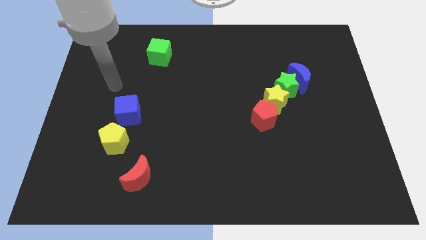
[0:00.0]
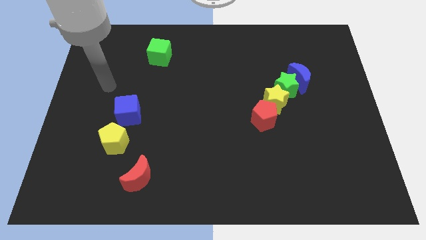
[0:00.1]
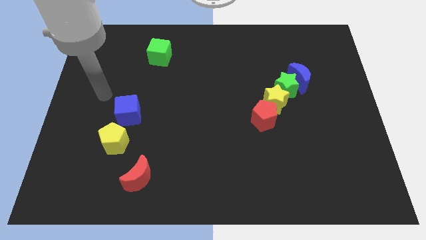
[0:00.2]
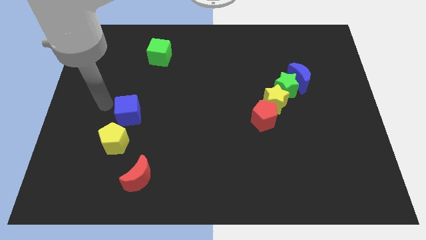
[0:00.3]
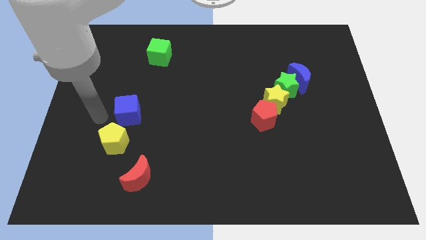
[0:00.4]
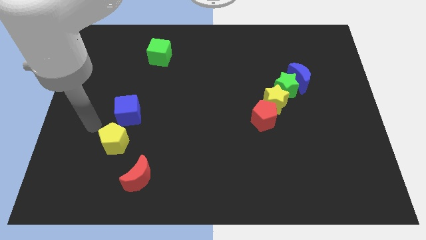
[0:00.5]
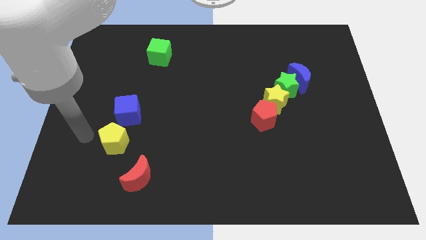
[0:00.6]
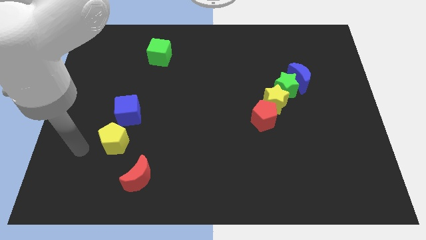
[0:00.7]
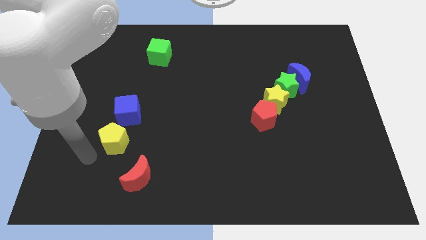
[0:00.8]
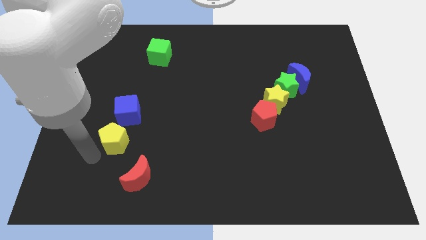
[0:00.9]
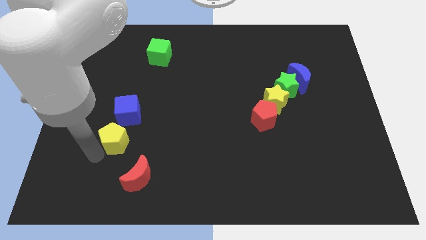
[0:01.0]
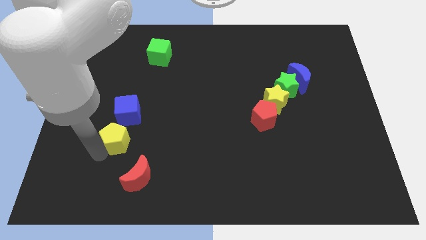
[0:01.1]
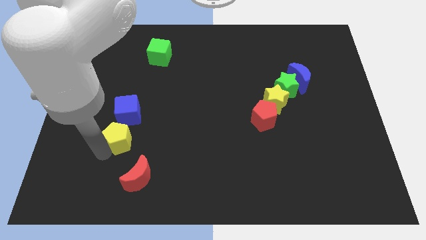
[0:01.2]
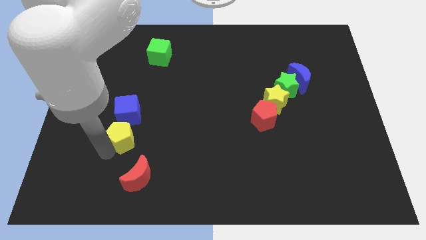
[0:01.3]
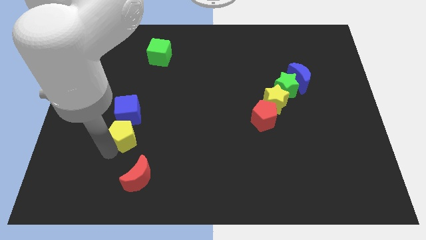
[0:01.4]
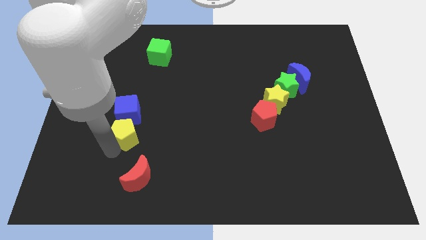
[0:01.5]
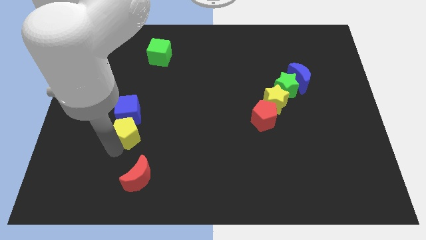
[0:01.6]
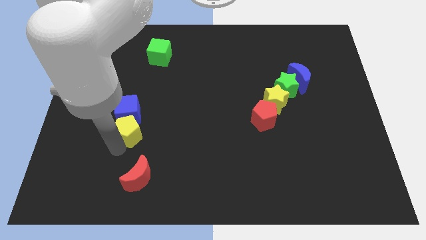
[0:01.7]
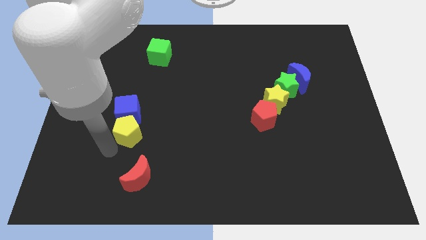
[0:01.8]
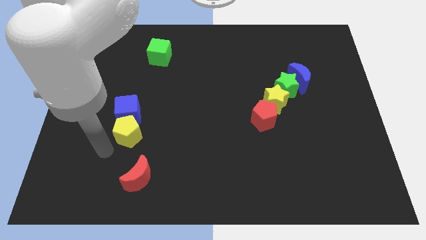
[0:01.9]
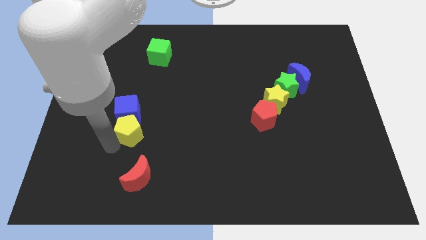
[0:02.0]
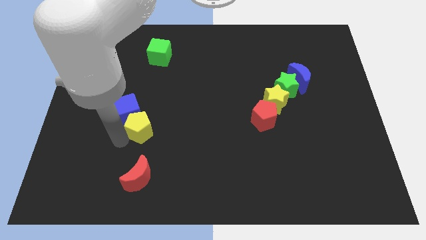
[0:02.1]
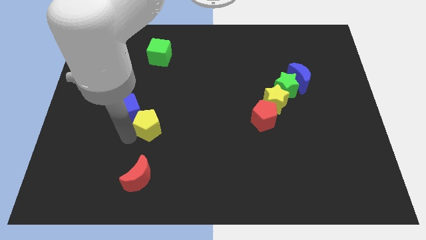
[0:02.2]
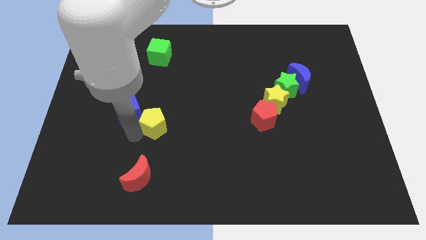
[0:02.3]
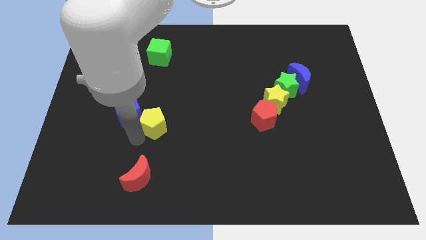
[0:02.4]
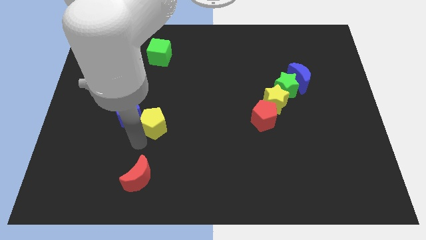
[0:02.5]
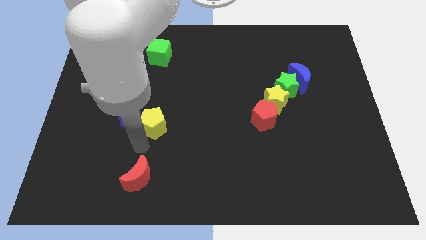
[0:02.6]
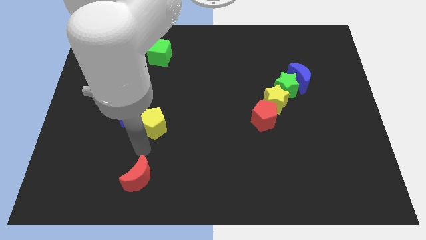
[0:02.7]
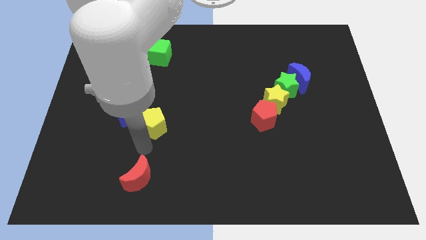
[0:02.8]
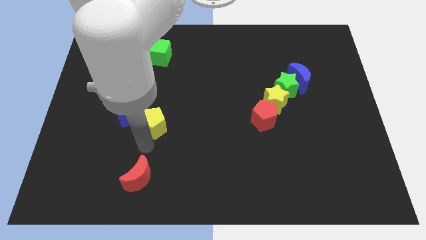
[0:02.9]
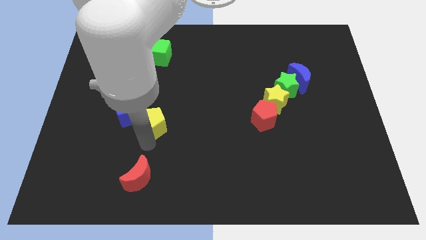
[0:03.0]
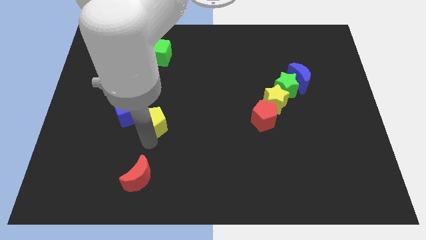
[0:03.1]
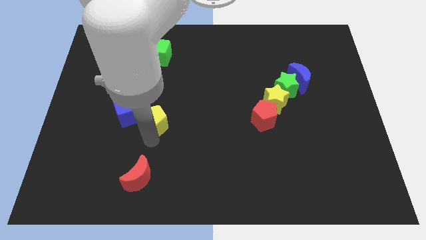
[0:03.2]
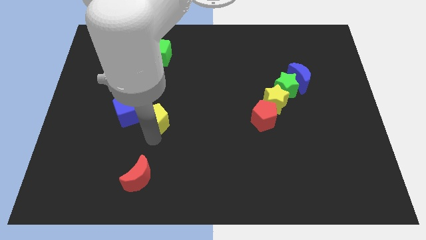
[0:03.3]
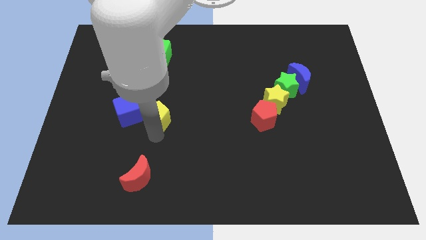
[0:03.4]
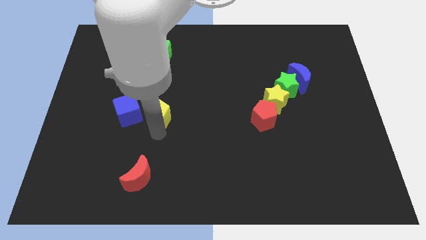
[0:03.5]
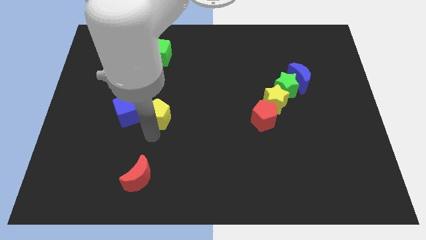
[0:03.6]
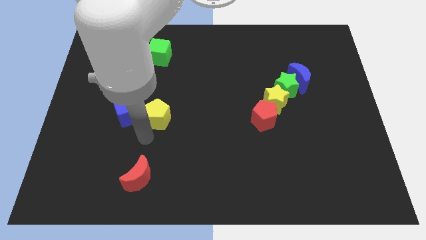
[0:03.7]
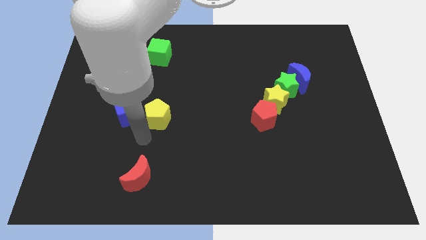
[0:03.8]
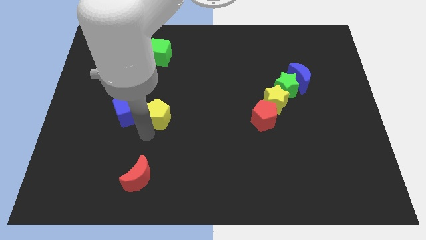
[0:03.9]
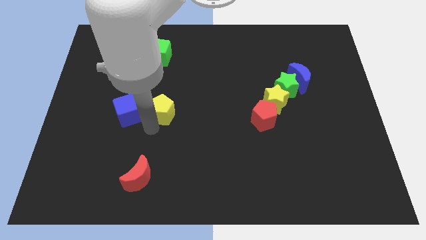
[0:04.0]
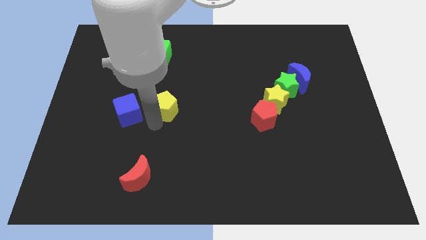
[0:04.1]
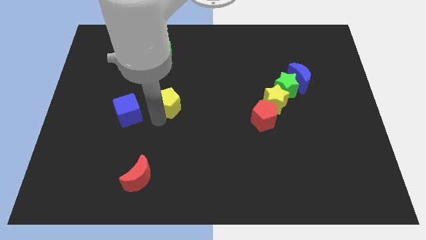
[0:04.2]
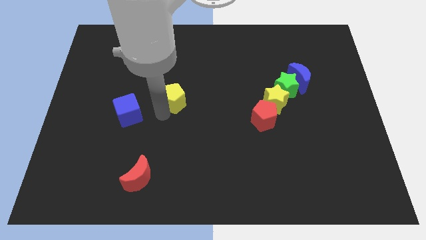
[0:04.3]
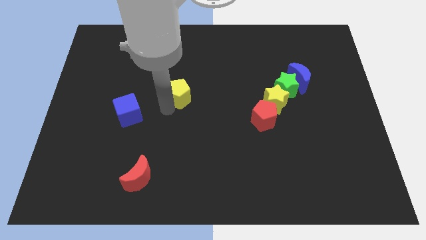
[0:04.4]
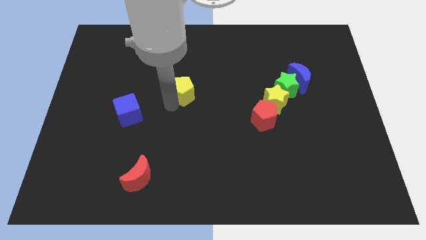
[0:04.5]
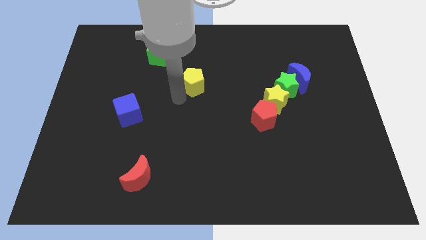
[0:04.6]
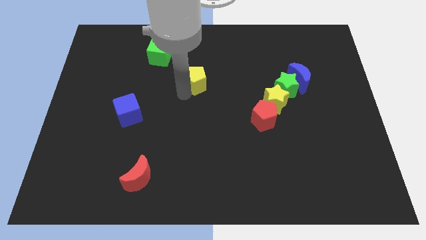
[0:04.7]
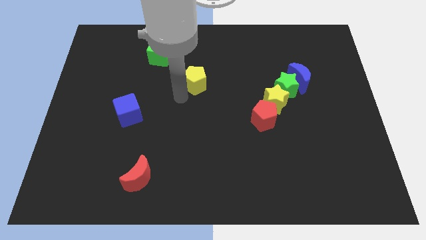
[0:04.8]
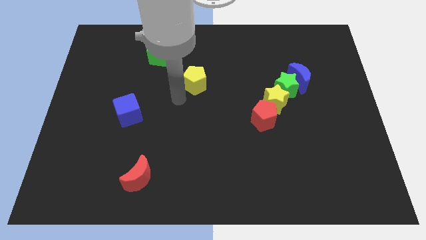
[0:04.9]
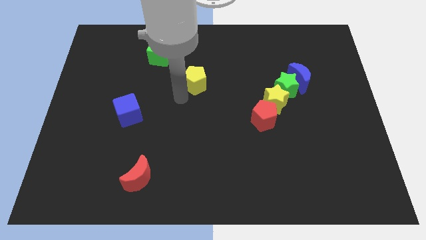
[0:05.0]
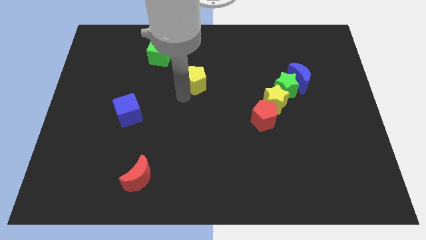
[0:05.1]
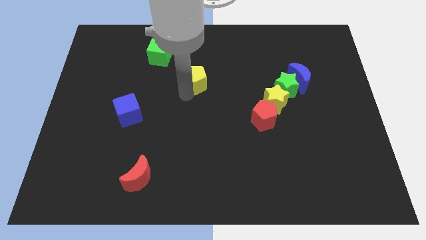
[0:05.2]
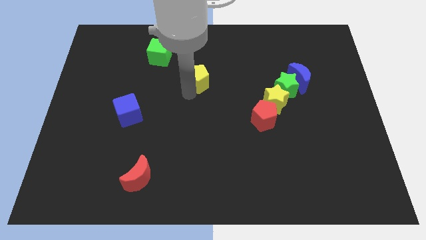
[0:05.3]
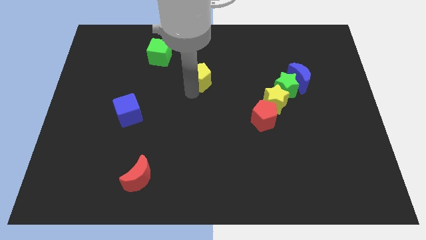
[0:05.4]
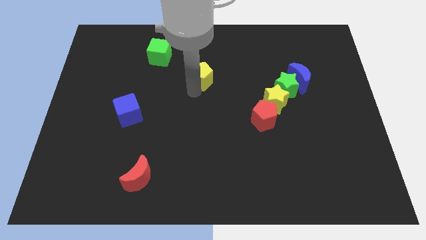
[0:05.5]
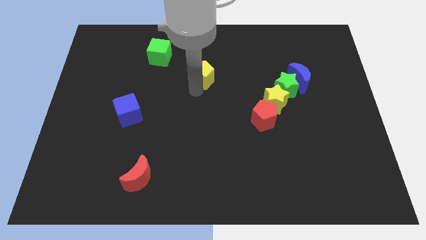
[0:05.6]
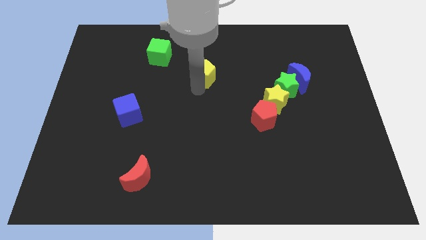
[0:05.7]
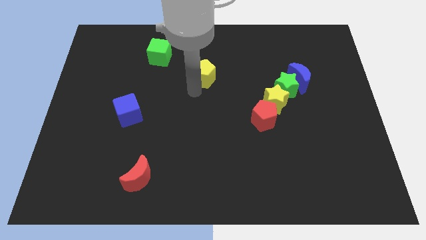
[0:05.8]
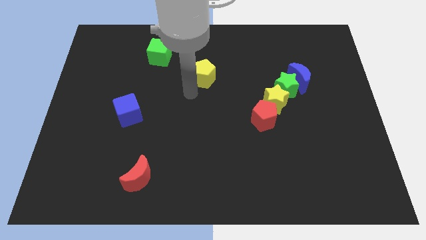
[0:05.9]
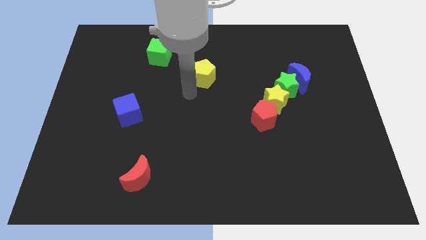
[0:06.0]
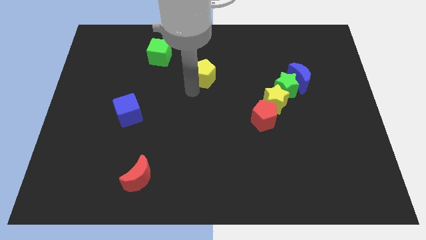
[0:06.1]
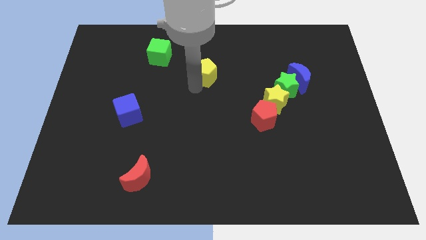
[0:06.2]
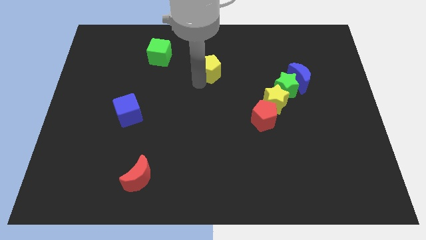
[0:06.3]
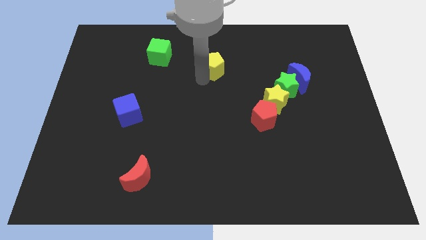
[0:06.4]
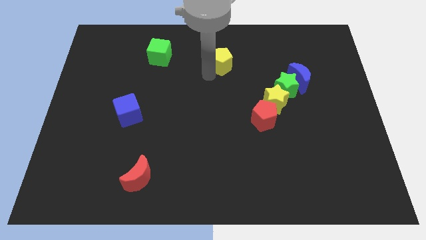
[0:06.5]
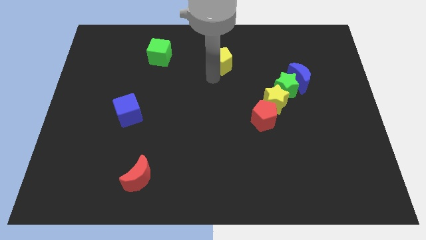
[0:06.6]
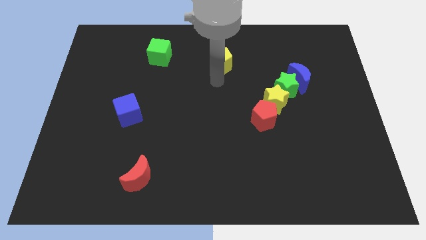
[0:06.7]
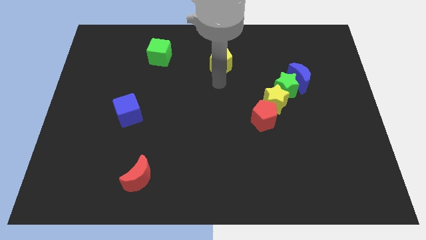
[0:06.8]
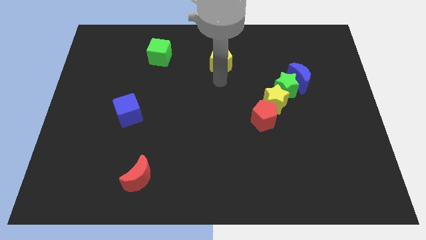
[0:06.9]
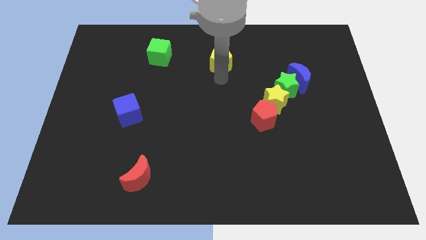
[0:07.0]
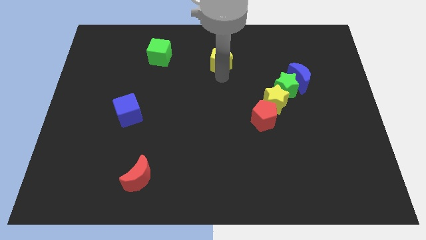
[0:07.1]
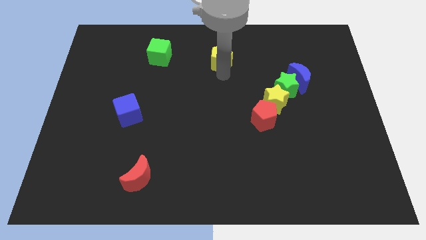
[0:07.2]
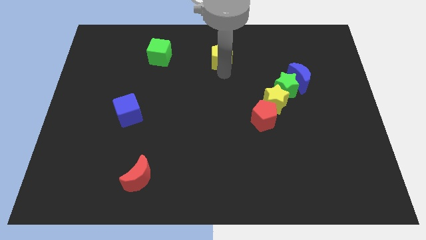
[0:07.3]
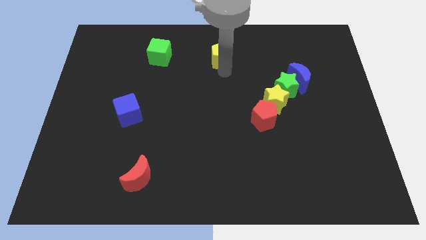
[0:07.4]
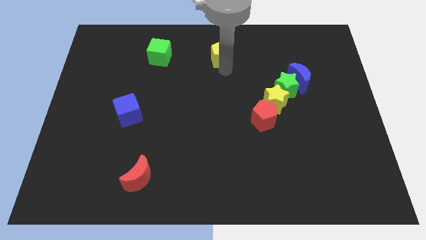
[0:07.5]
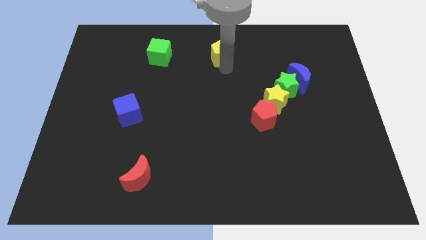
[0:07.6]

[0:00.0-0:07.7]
put the yellow pentagon to the top
